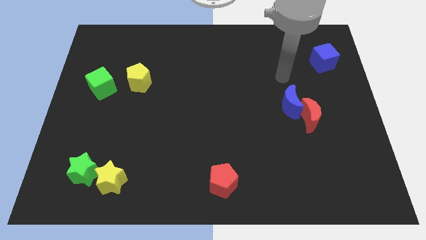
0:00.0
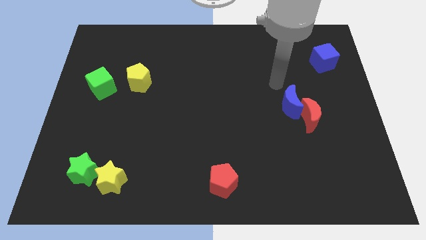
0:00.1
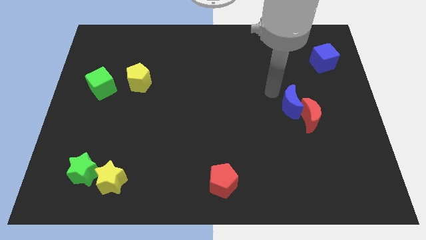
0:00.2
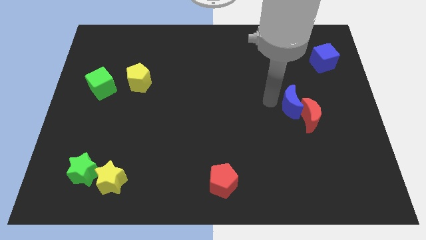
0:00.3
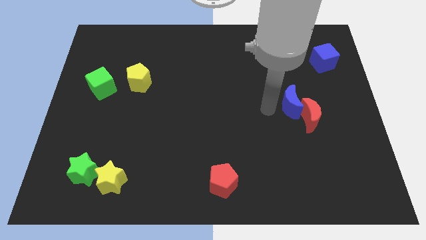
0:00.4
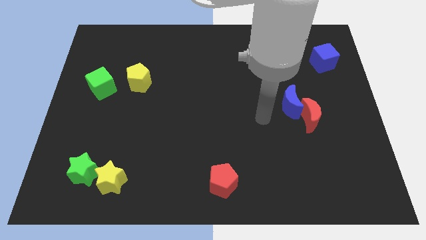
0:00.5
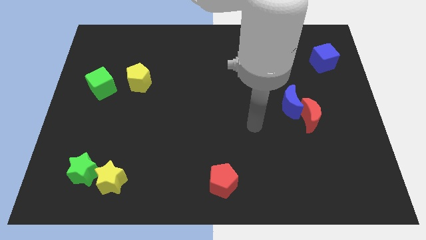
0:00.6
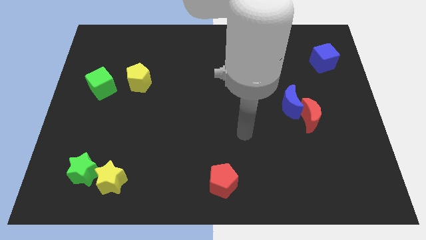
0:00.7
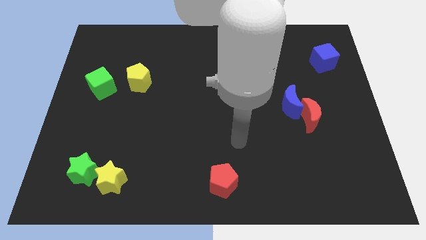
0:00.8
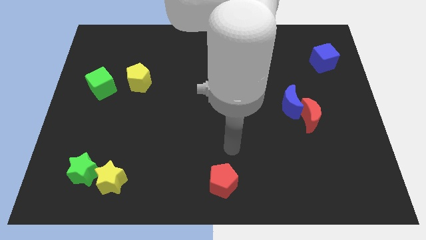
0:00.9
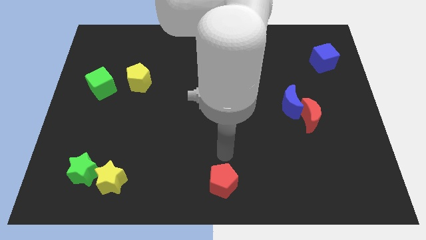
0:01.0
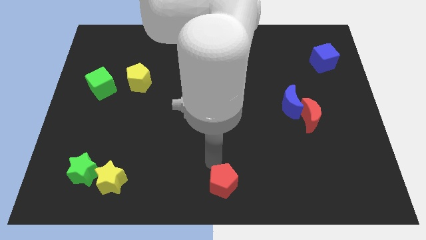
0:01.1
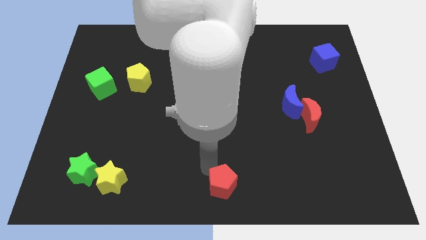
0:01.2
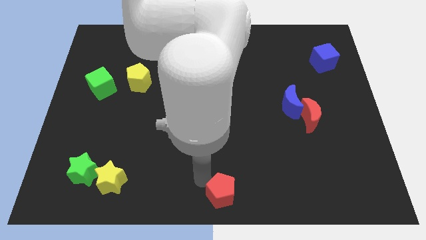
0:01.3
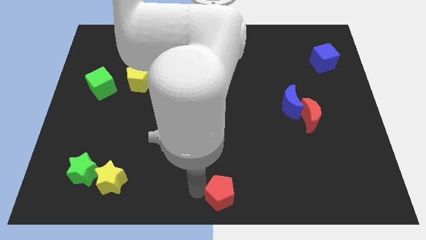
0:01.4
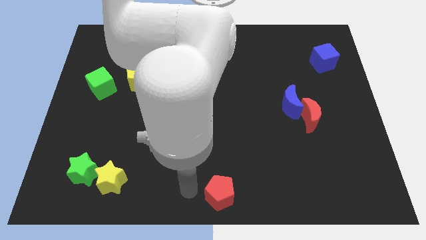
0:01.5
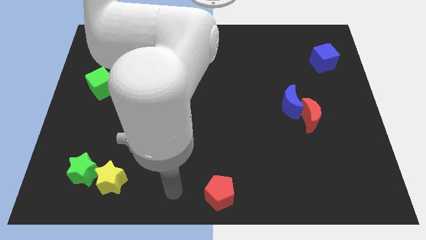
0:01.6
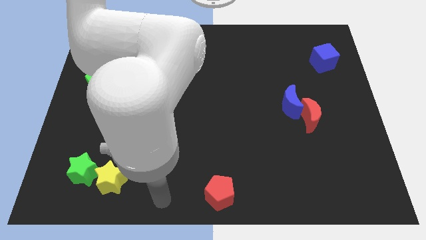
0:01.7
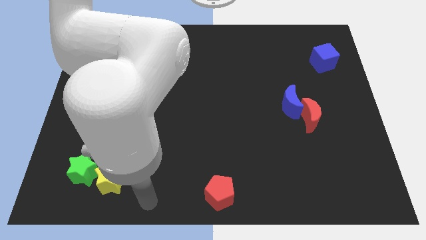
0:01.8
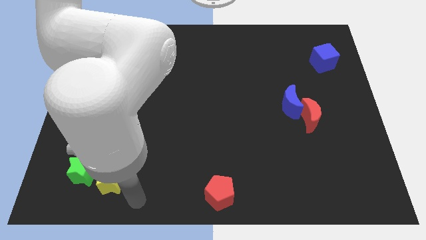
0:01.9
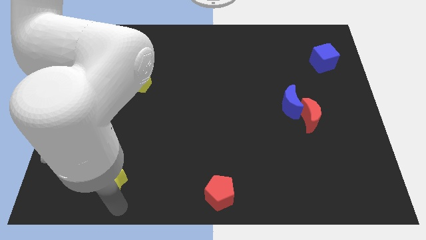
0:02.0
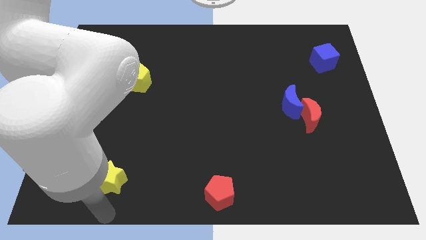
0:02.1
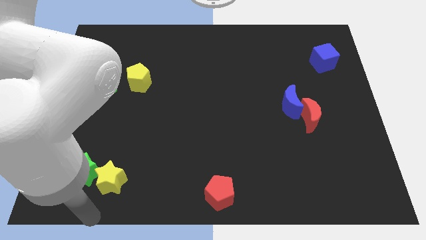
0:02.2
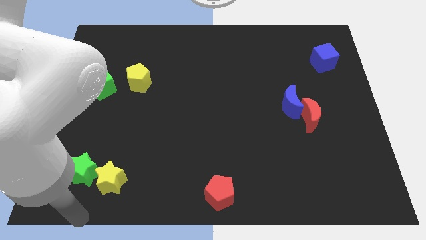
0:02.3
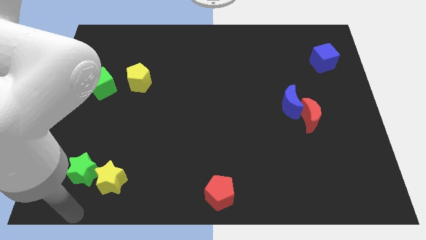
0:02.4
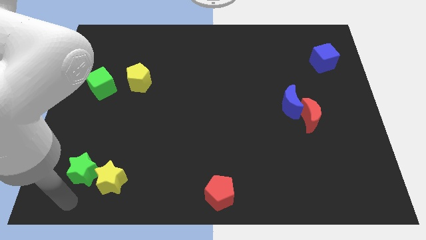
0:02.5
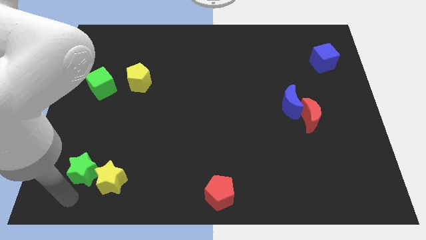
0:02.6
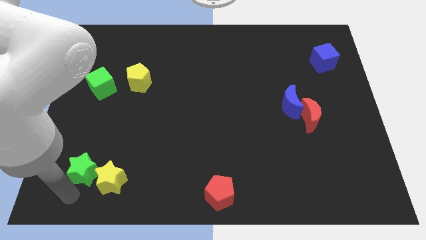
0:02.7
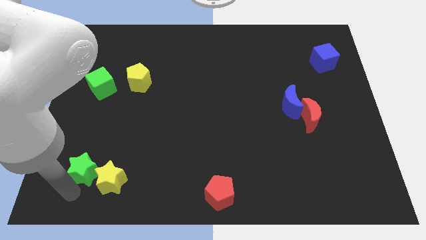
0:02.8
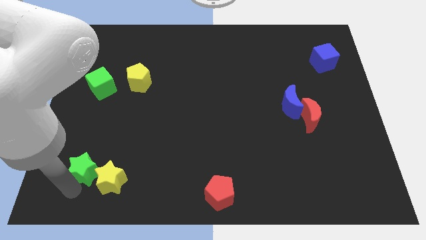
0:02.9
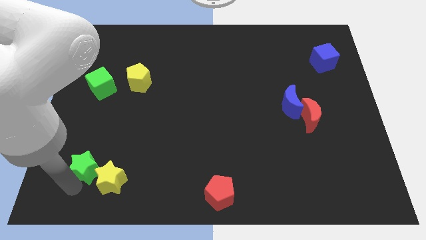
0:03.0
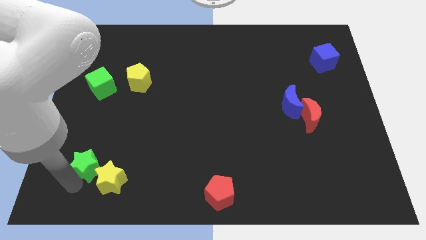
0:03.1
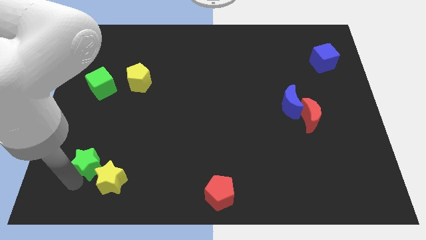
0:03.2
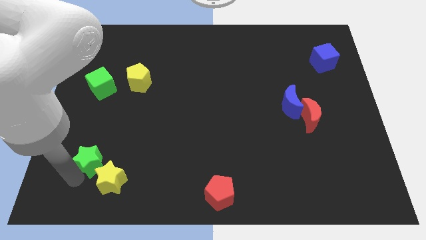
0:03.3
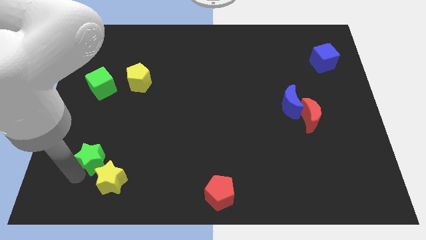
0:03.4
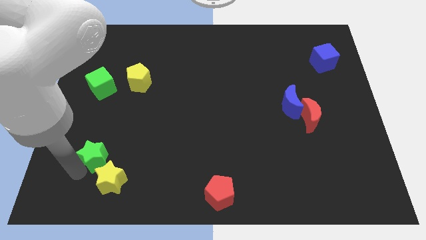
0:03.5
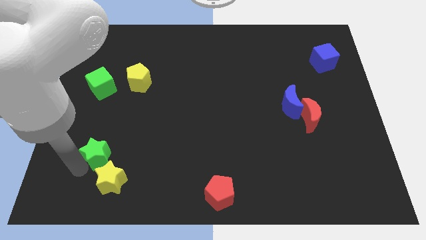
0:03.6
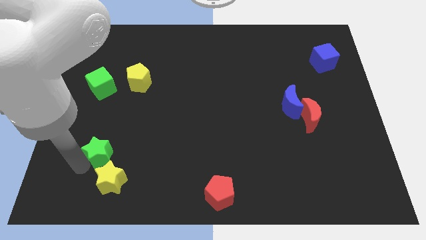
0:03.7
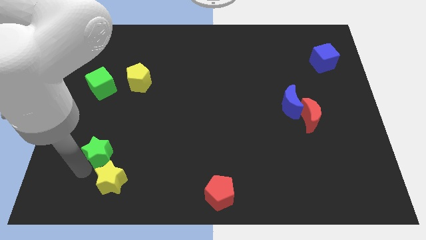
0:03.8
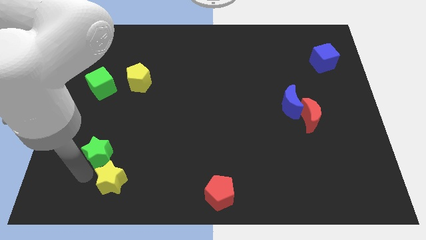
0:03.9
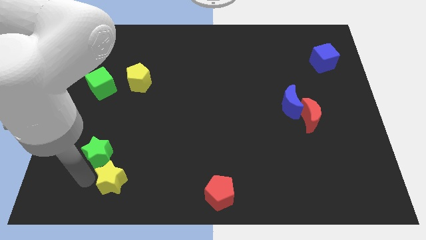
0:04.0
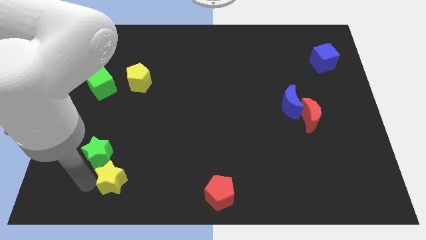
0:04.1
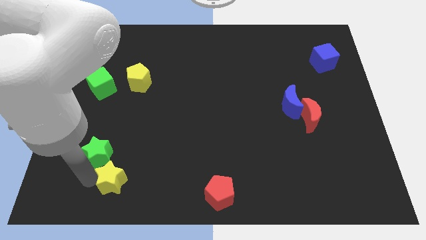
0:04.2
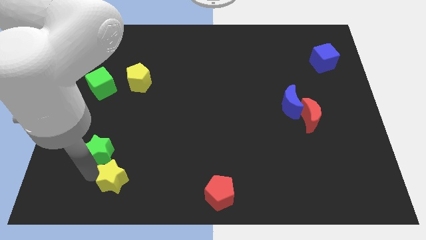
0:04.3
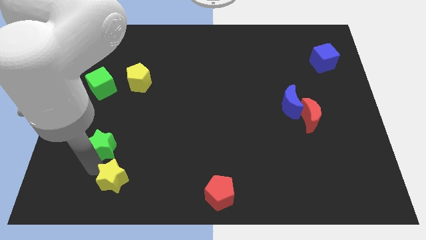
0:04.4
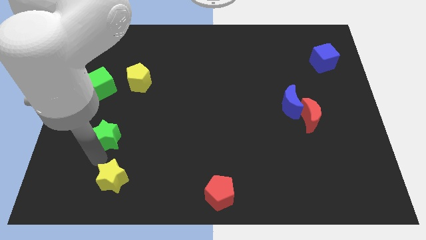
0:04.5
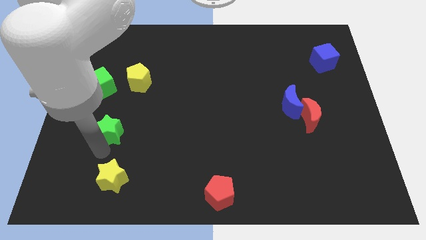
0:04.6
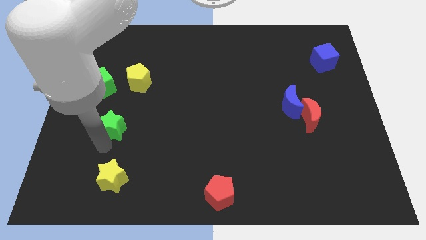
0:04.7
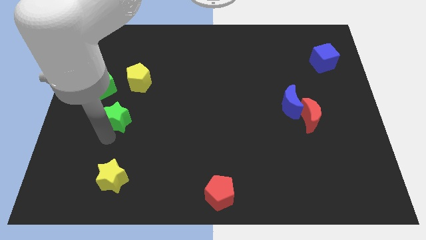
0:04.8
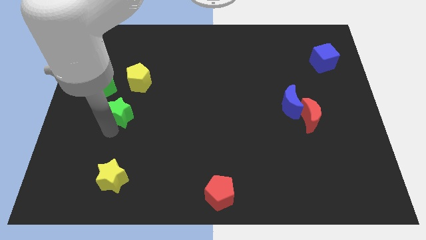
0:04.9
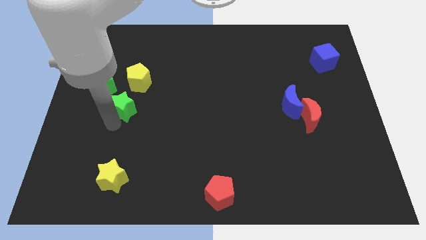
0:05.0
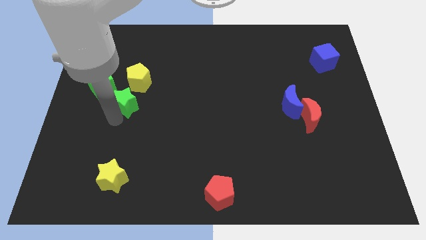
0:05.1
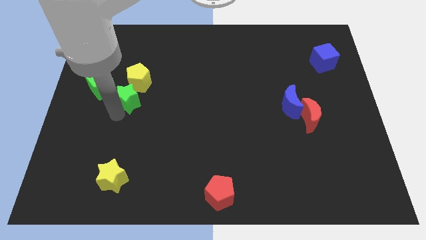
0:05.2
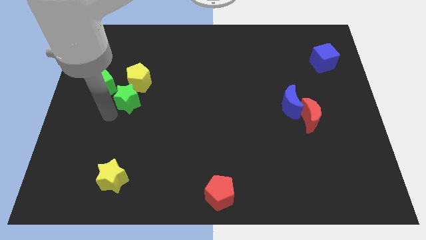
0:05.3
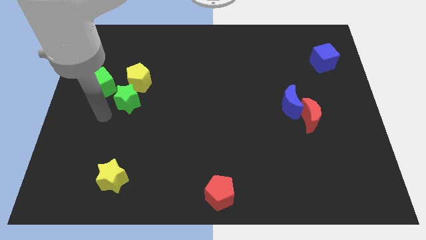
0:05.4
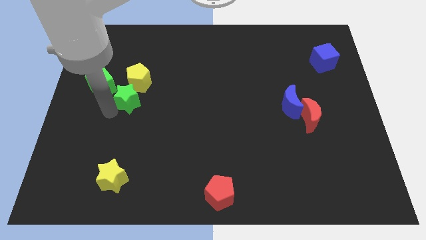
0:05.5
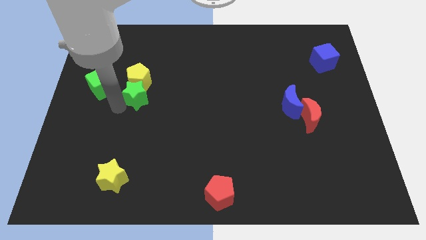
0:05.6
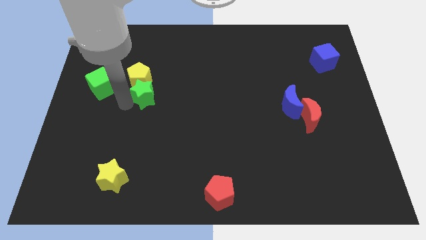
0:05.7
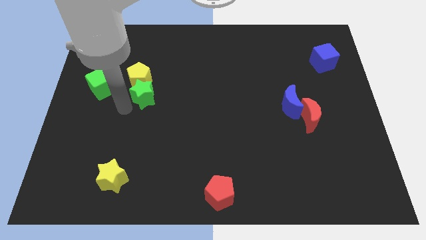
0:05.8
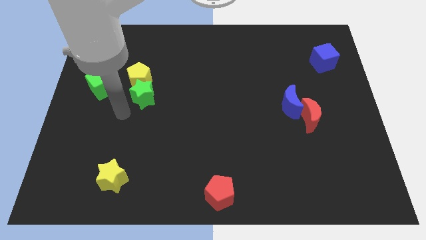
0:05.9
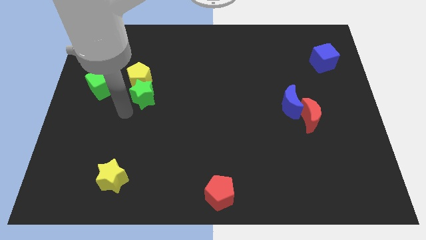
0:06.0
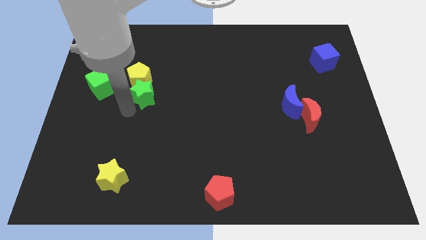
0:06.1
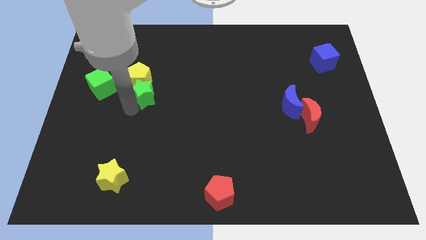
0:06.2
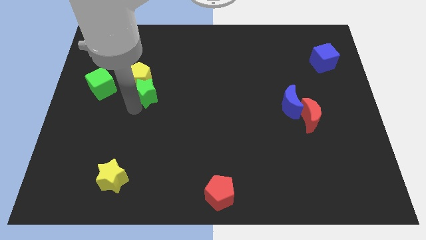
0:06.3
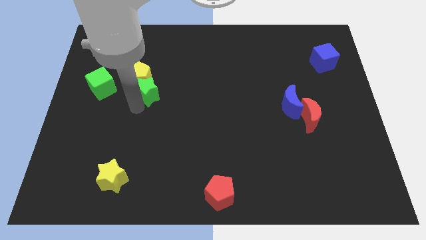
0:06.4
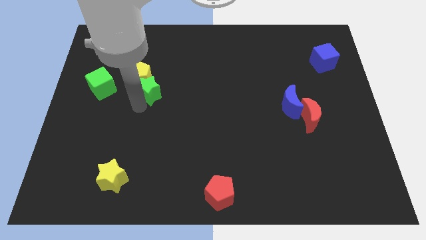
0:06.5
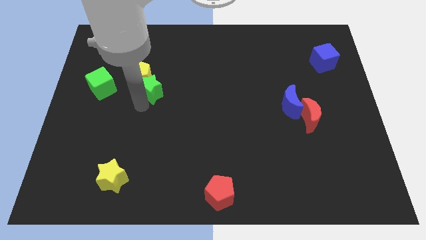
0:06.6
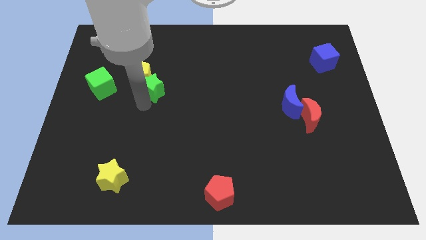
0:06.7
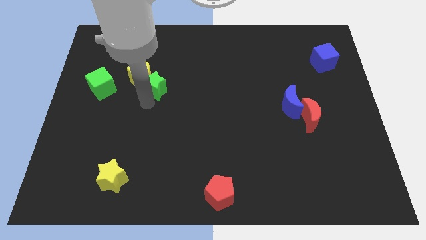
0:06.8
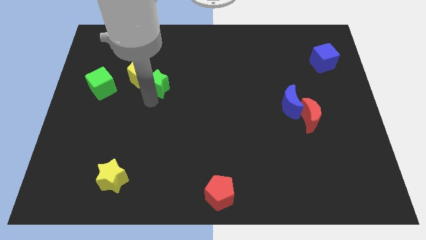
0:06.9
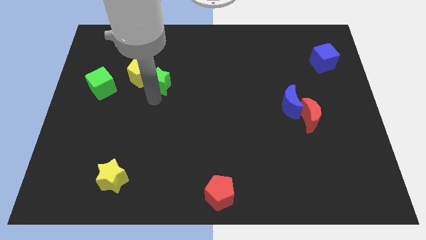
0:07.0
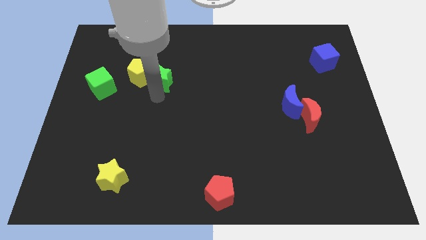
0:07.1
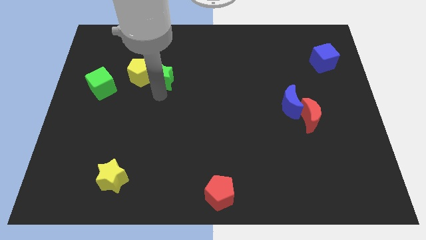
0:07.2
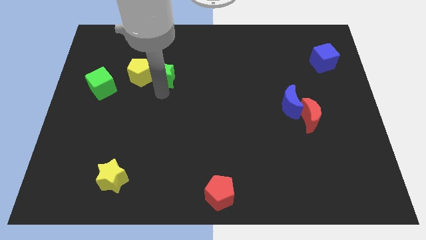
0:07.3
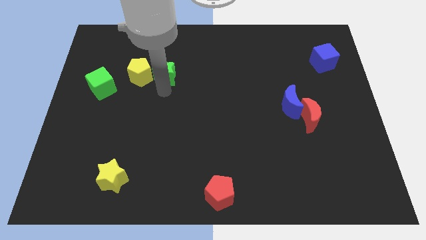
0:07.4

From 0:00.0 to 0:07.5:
slide the green star to the top right side of the yellow pentagon

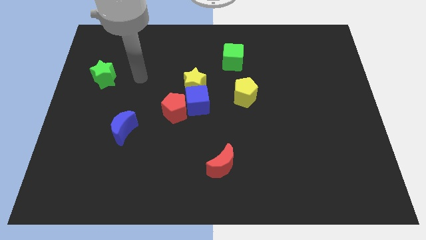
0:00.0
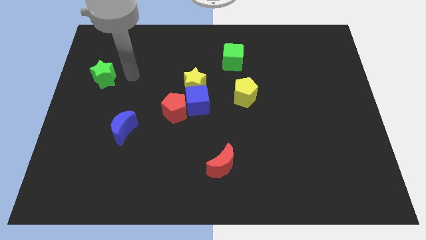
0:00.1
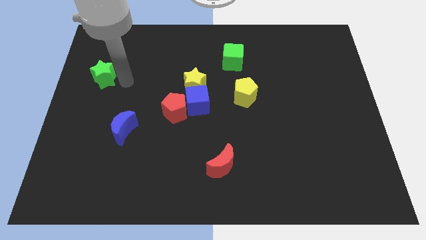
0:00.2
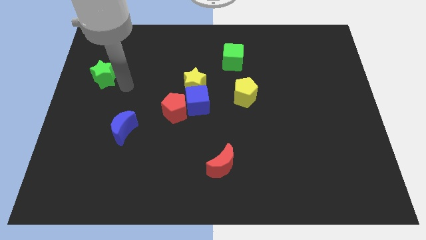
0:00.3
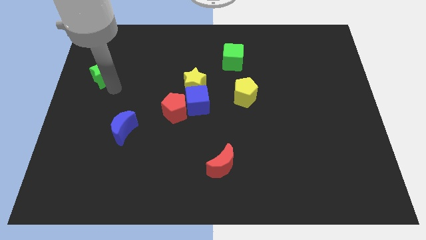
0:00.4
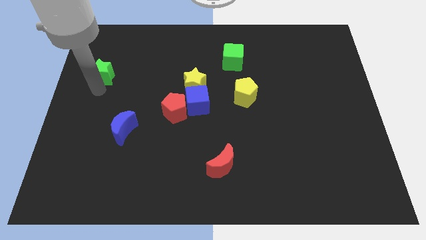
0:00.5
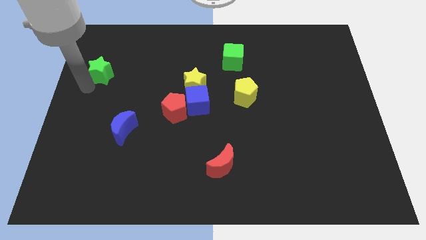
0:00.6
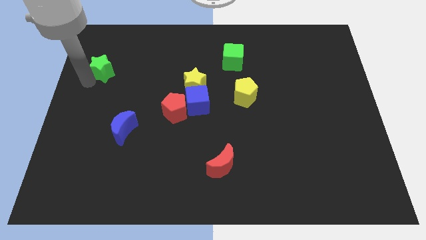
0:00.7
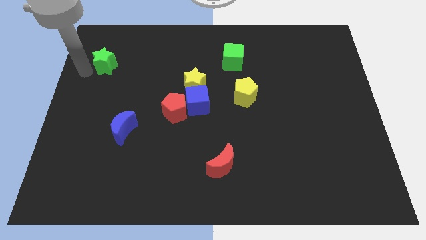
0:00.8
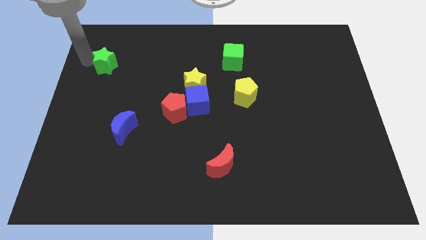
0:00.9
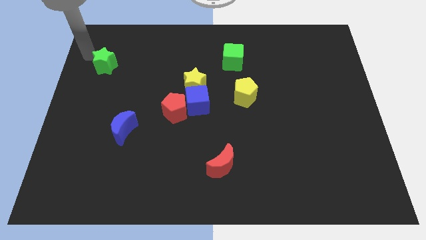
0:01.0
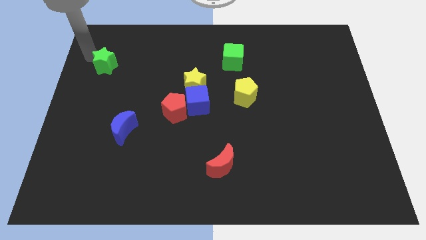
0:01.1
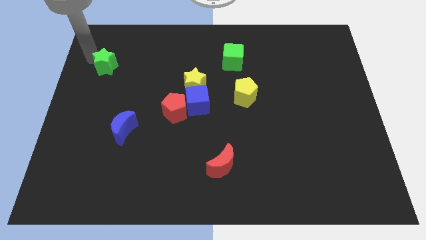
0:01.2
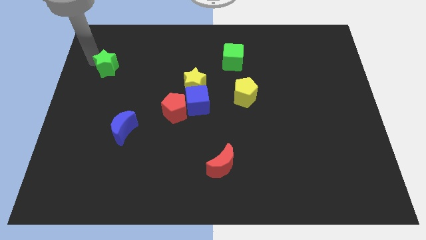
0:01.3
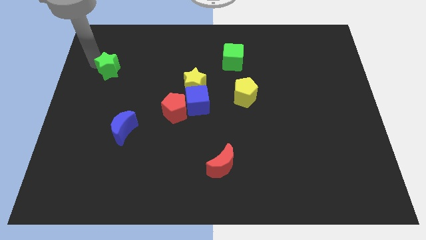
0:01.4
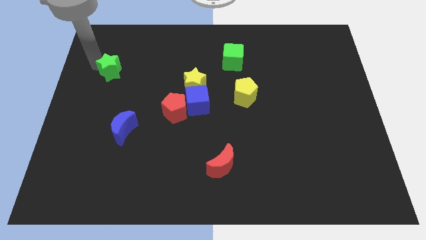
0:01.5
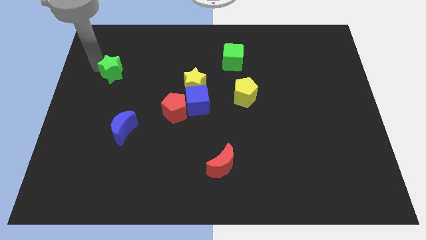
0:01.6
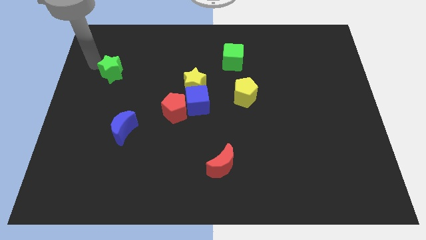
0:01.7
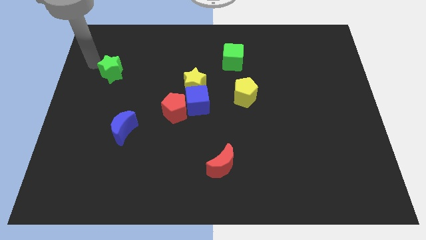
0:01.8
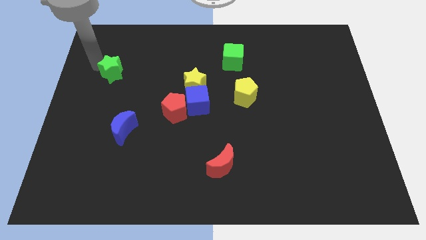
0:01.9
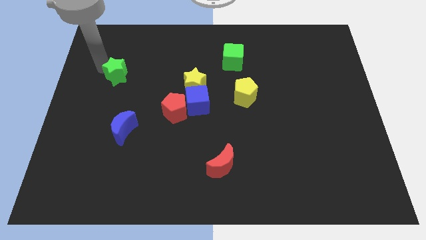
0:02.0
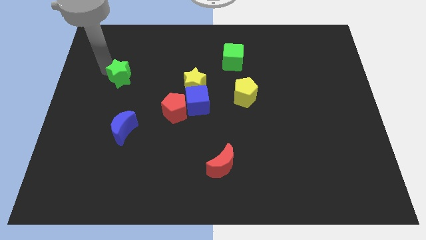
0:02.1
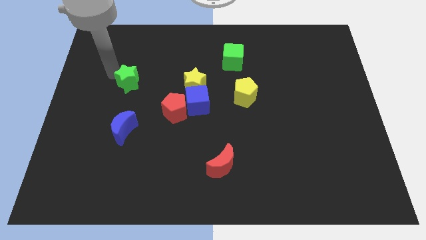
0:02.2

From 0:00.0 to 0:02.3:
move the green star just left of the yellow star
